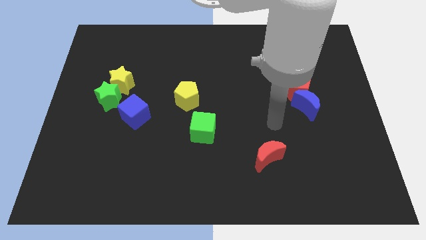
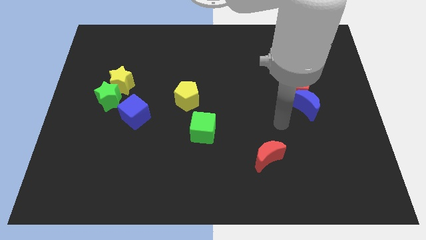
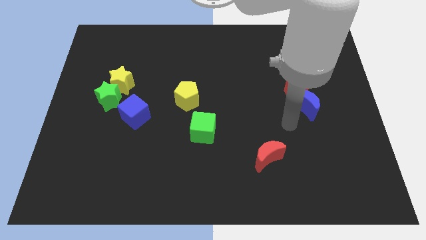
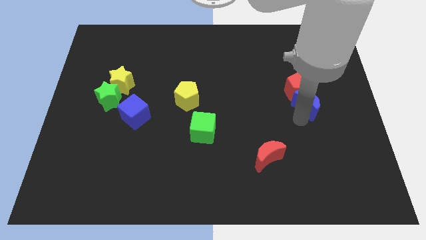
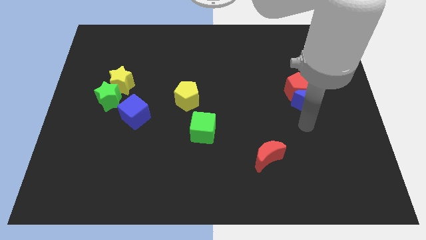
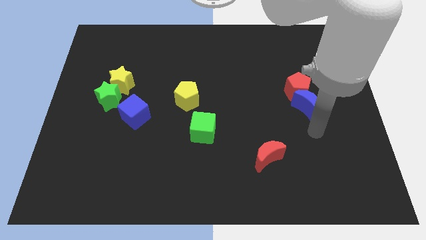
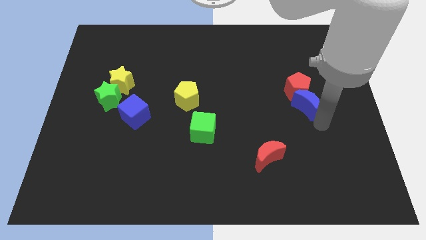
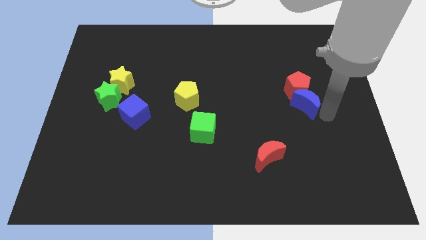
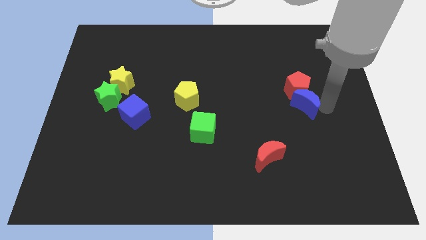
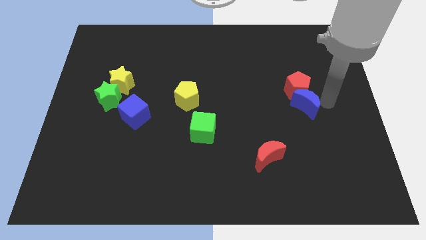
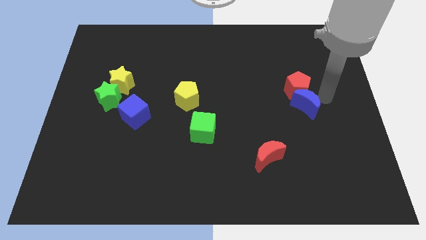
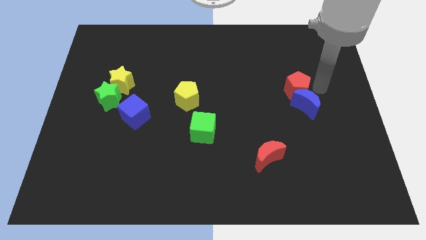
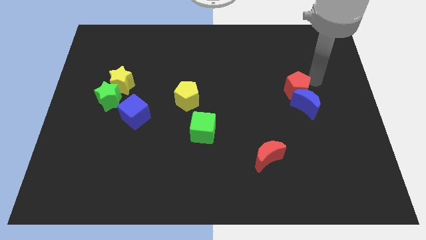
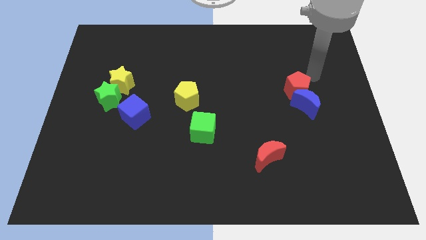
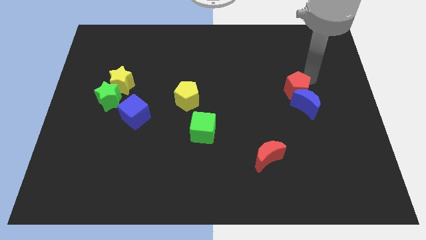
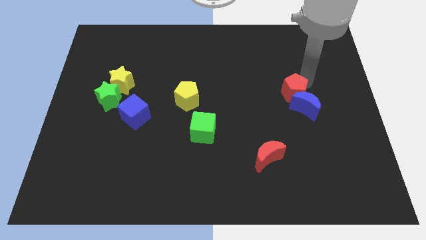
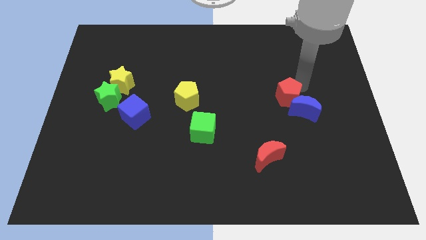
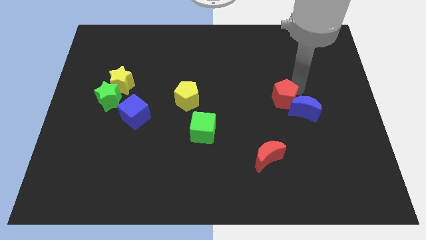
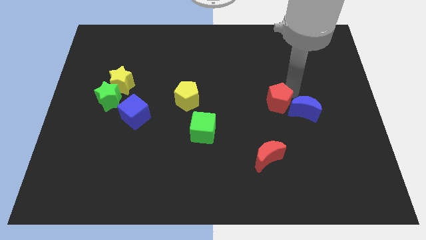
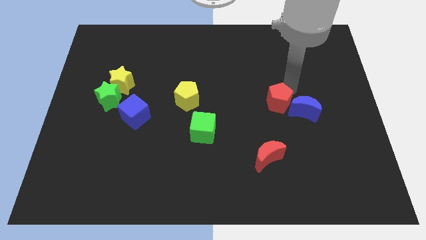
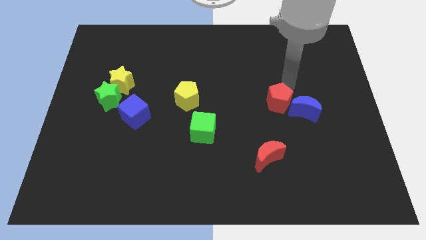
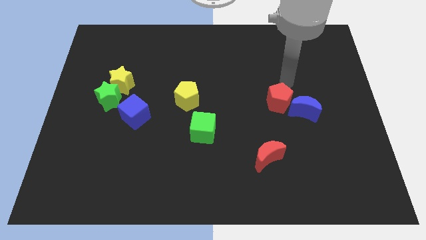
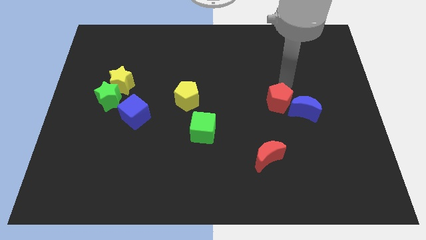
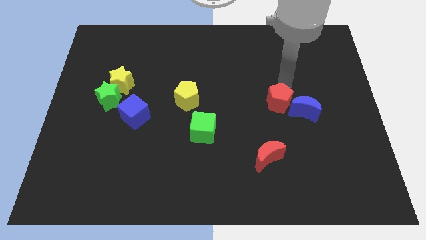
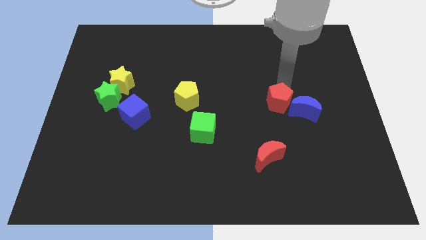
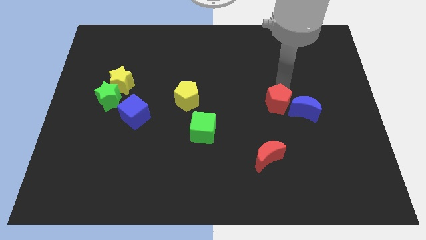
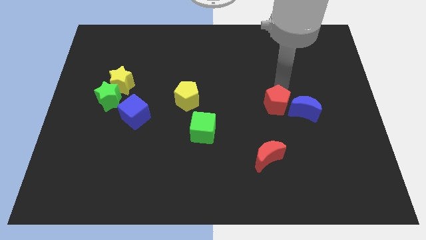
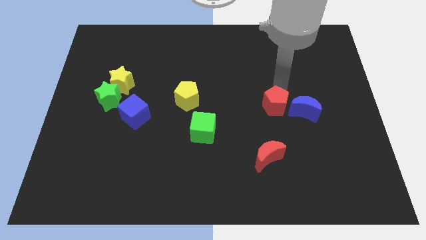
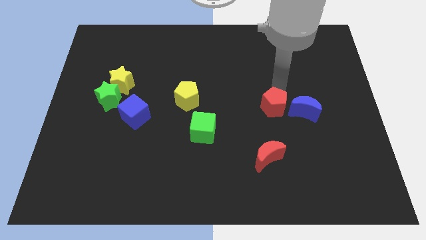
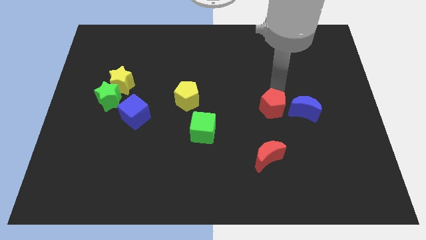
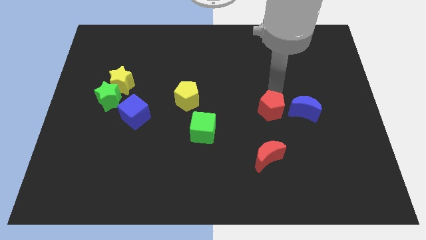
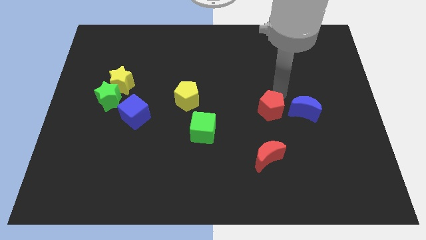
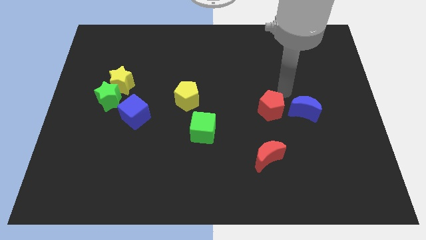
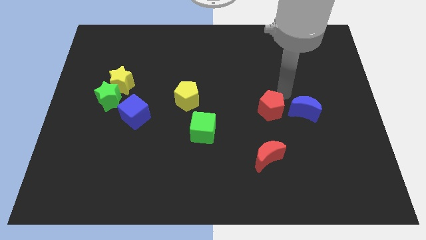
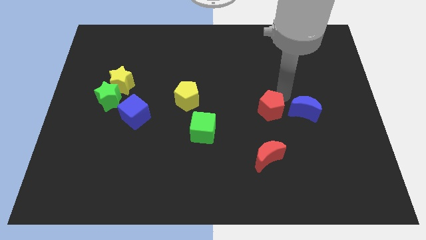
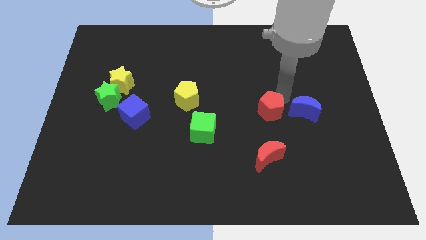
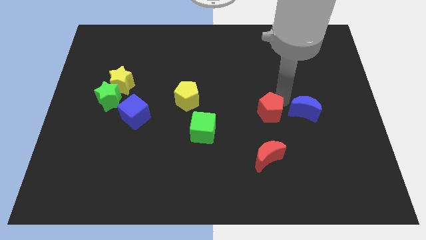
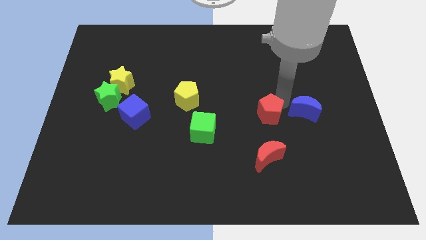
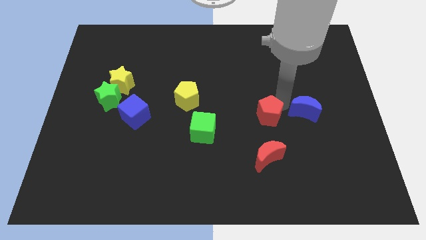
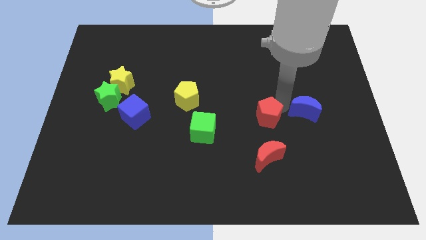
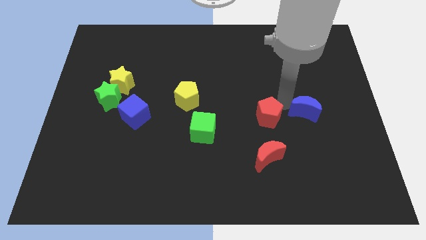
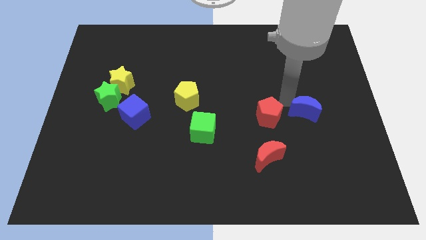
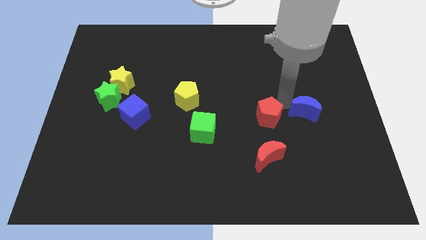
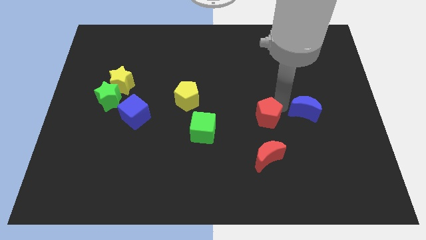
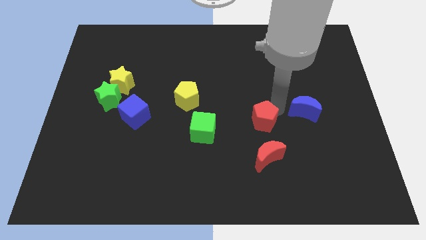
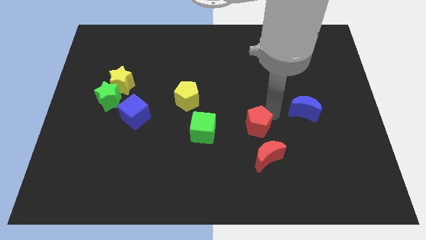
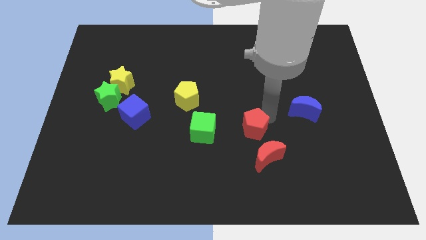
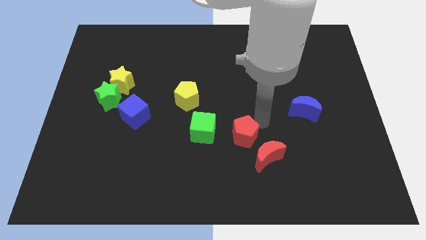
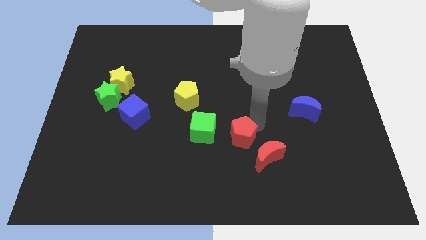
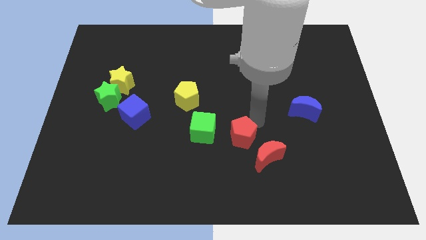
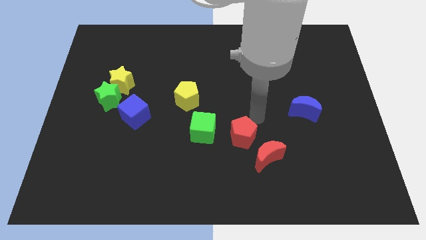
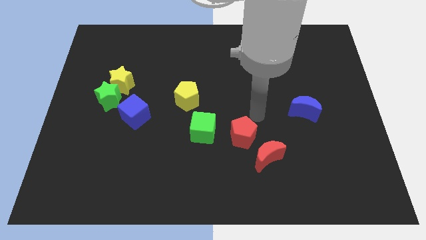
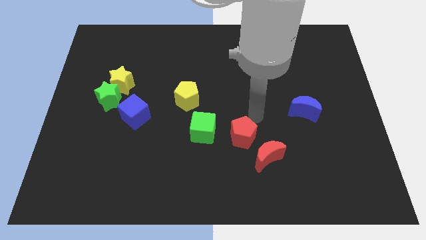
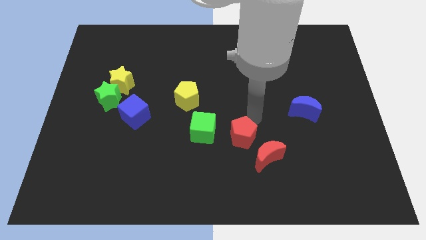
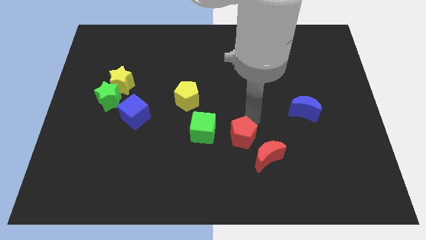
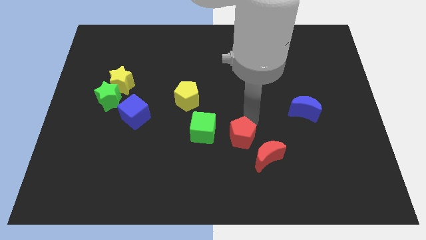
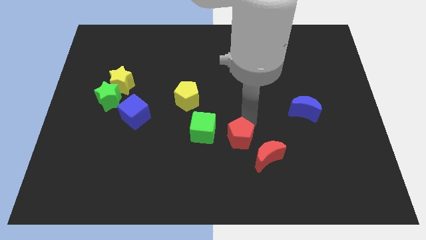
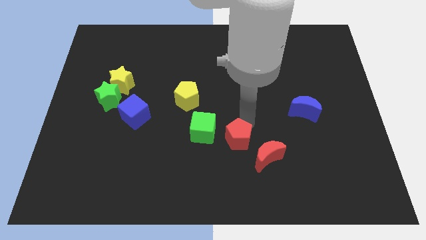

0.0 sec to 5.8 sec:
push the red pentagon to the left side of the red moon

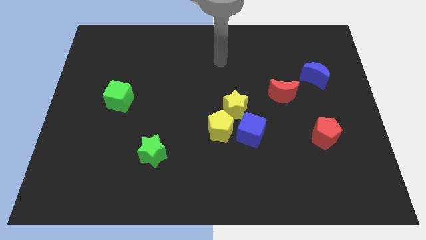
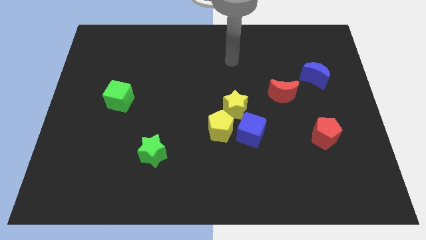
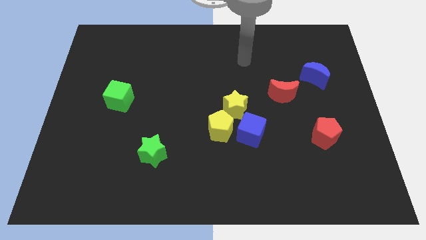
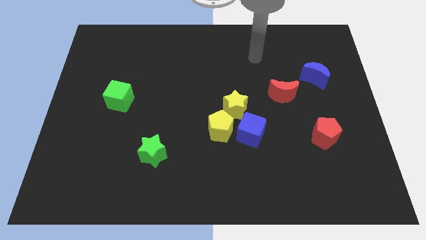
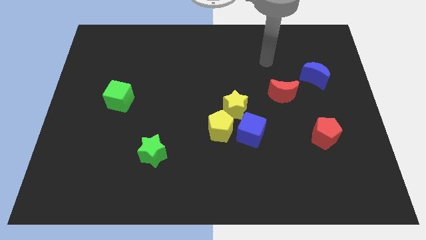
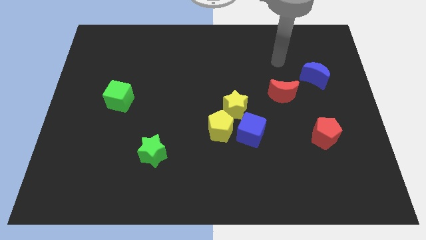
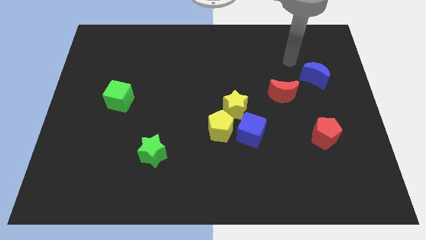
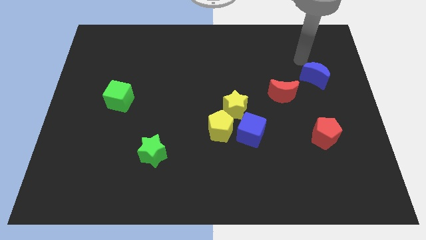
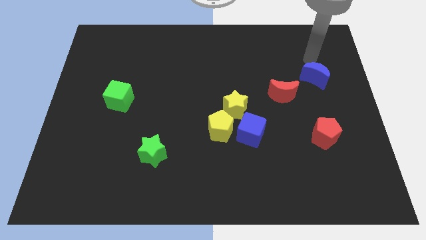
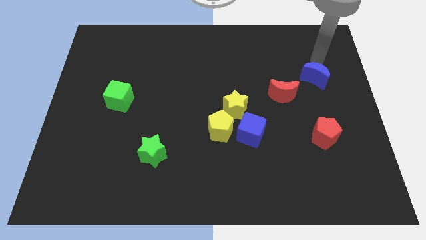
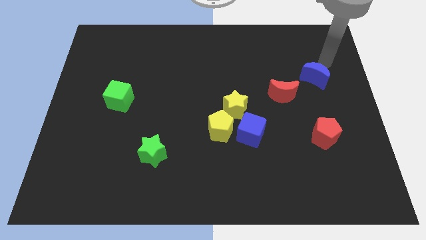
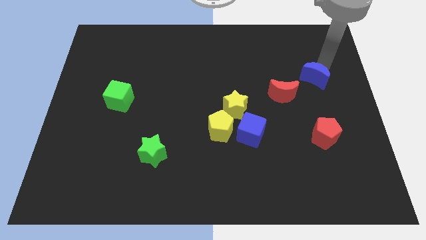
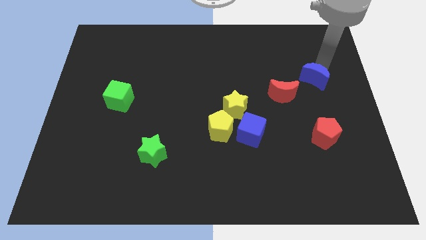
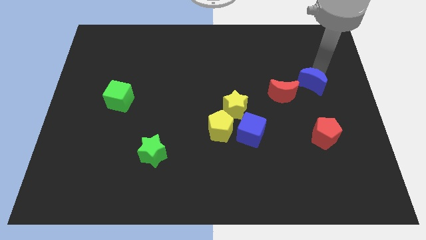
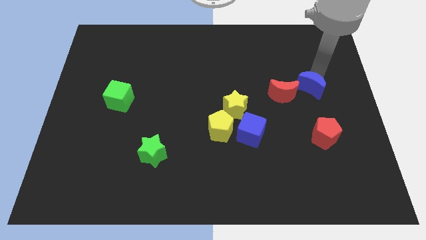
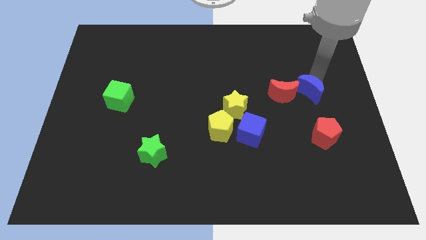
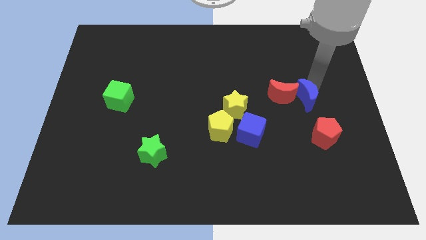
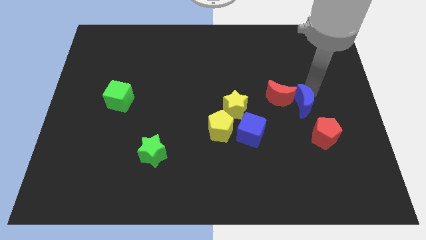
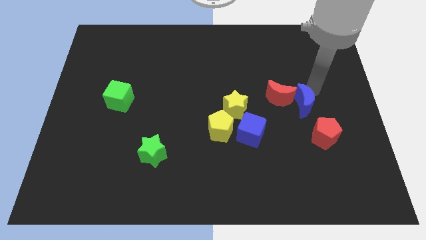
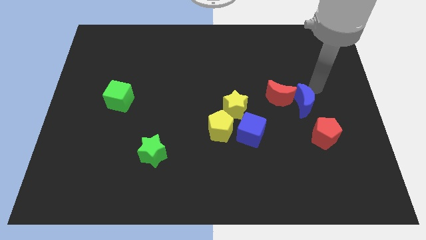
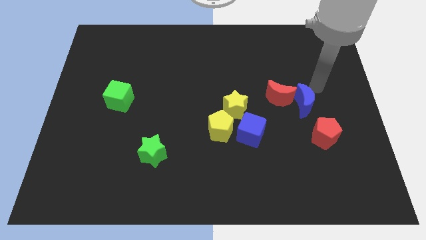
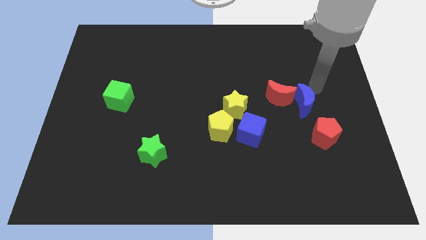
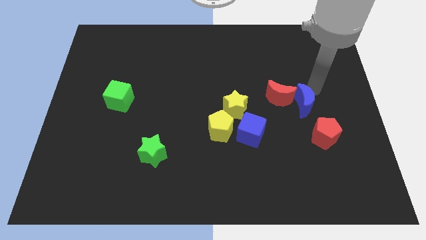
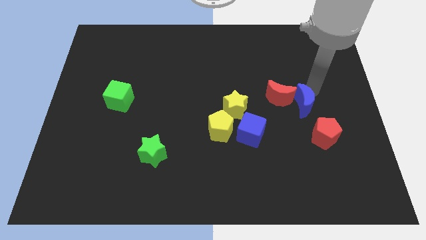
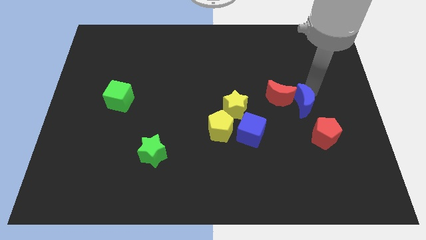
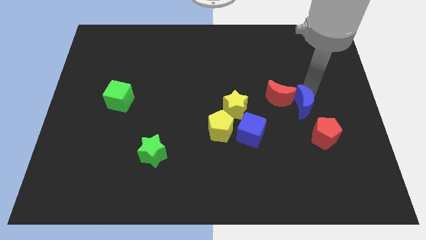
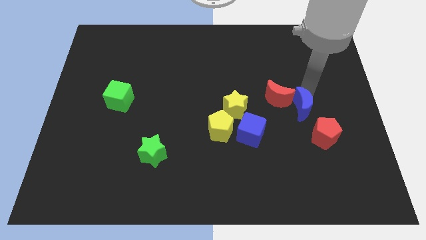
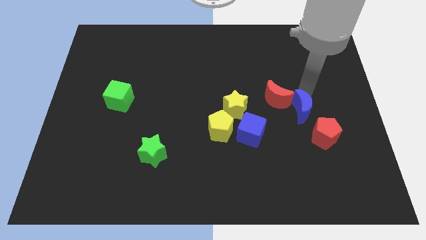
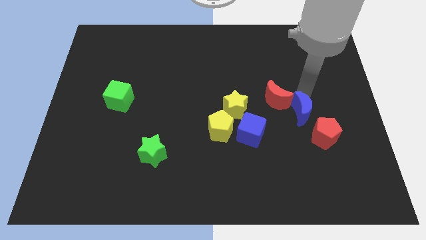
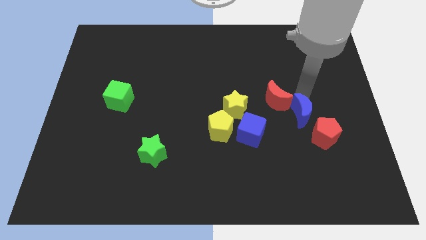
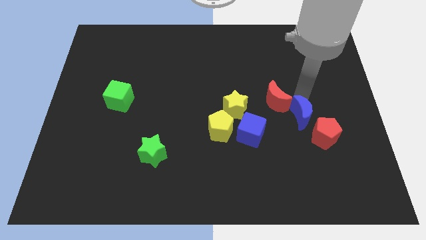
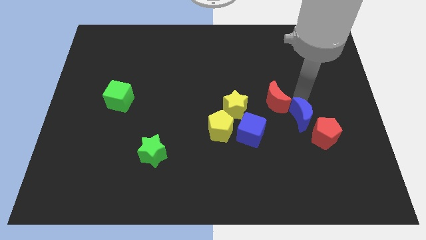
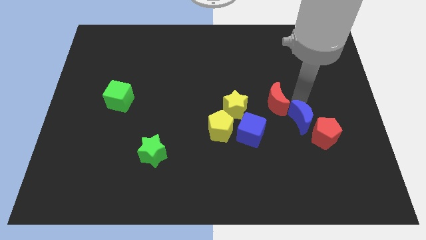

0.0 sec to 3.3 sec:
push the blue moon to the left of the red pentagon
